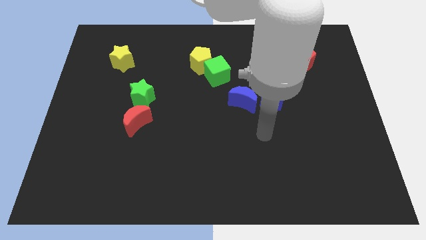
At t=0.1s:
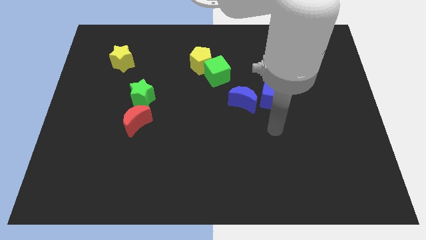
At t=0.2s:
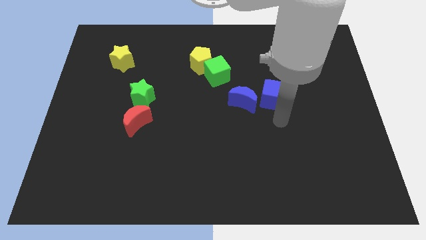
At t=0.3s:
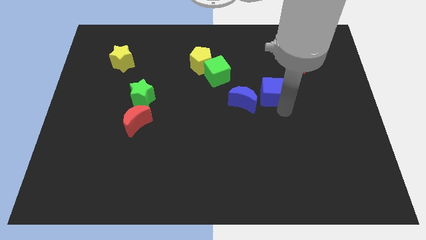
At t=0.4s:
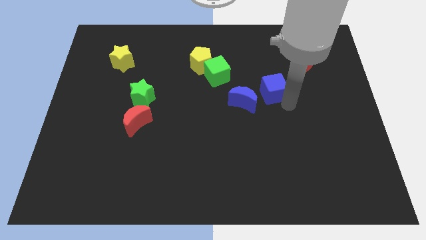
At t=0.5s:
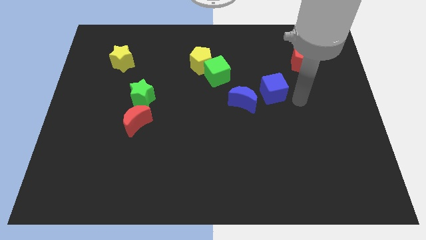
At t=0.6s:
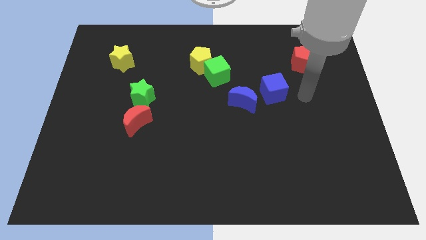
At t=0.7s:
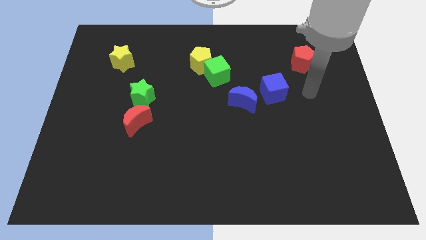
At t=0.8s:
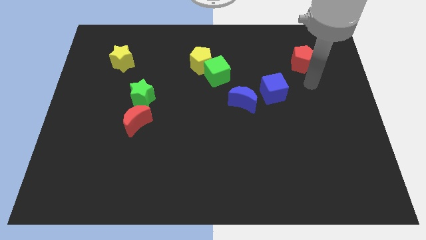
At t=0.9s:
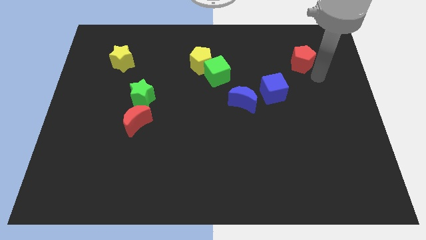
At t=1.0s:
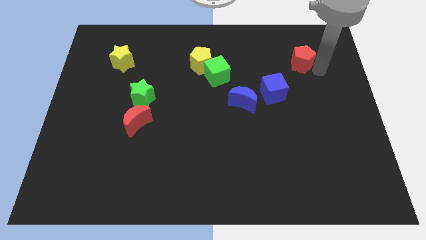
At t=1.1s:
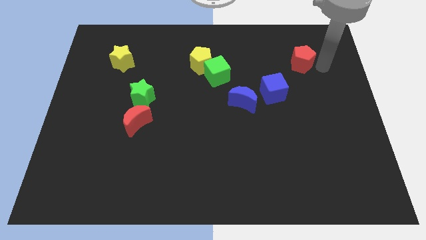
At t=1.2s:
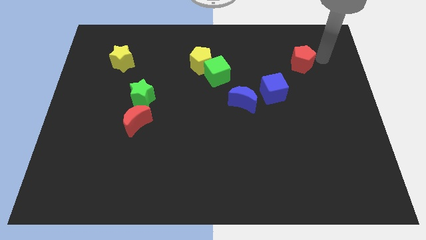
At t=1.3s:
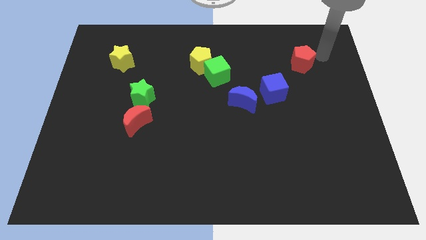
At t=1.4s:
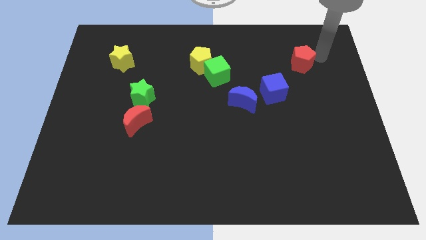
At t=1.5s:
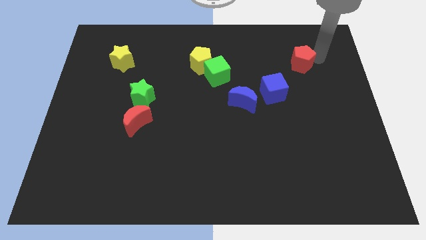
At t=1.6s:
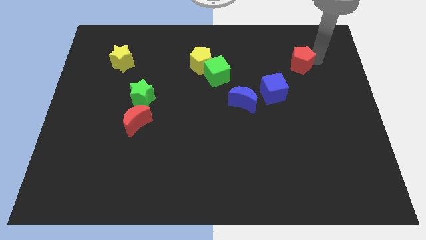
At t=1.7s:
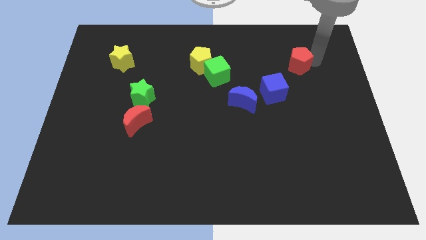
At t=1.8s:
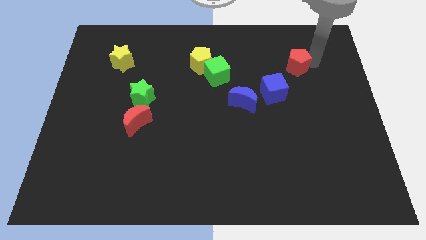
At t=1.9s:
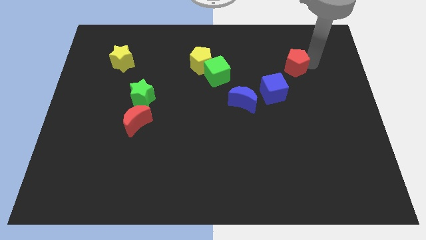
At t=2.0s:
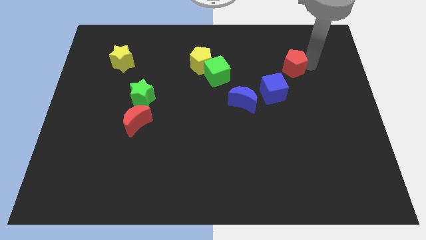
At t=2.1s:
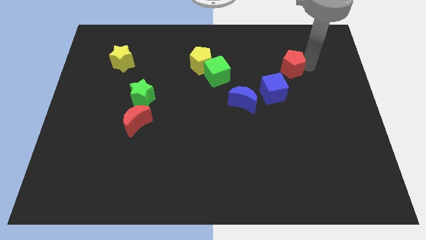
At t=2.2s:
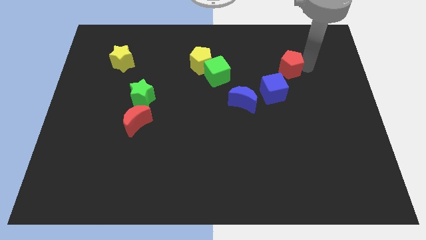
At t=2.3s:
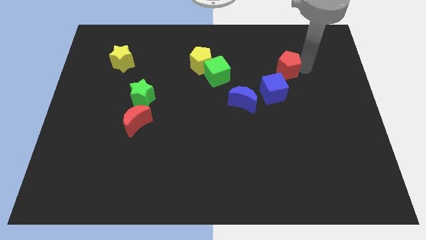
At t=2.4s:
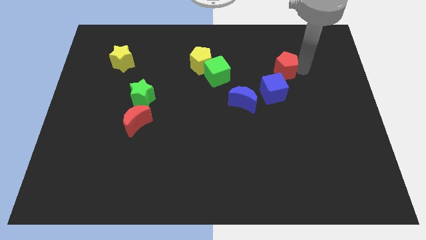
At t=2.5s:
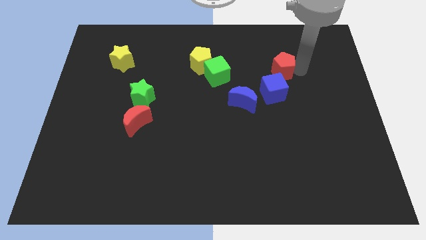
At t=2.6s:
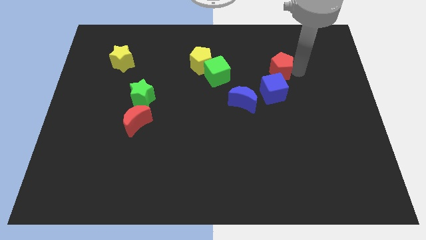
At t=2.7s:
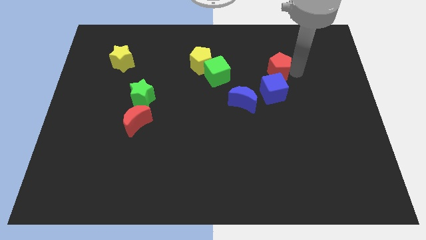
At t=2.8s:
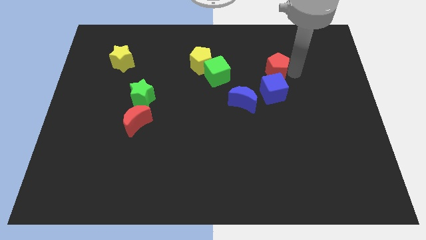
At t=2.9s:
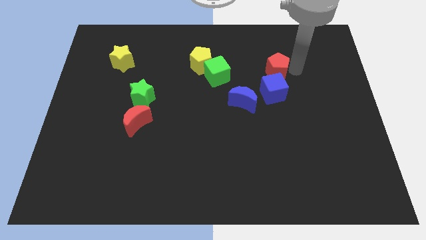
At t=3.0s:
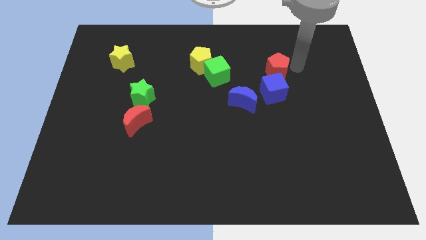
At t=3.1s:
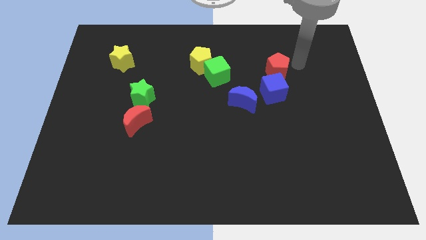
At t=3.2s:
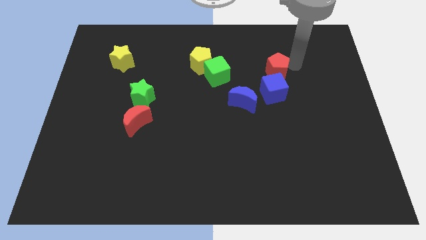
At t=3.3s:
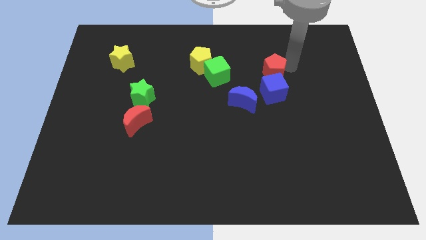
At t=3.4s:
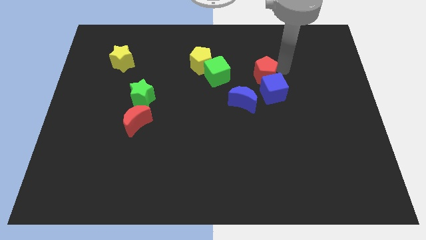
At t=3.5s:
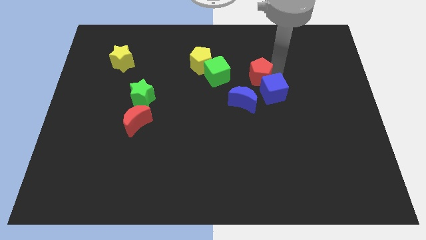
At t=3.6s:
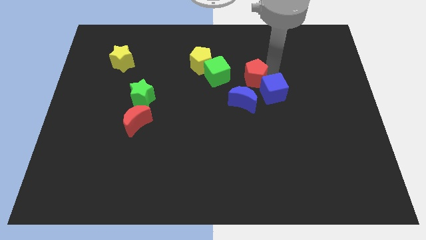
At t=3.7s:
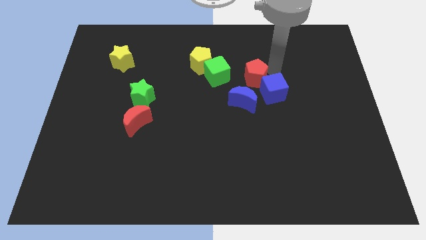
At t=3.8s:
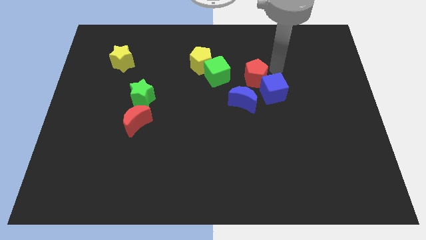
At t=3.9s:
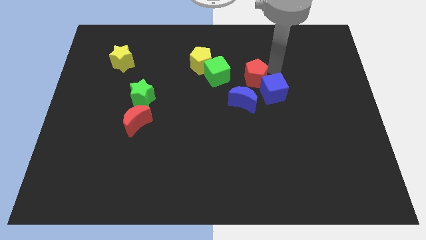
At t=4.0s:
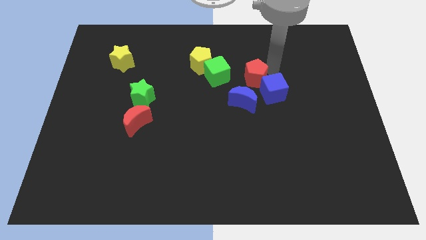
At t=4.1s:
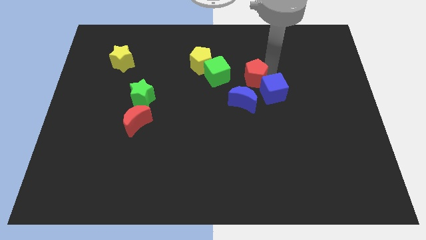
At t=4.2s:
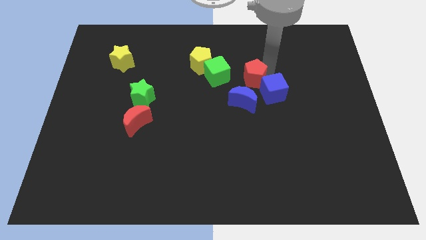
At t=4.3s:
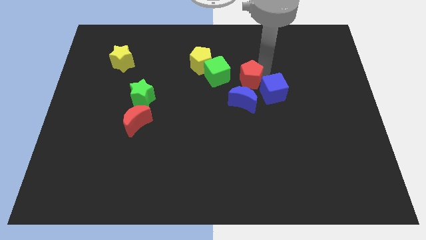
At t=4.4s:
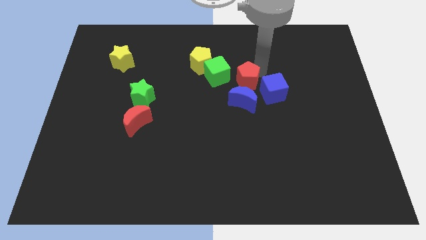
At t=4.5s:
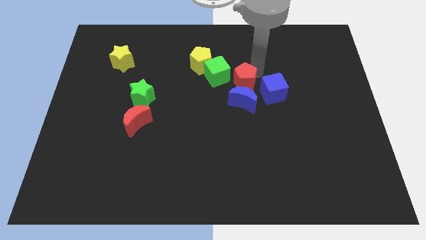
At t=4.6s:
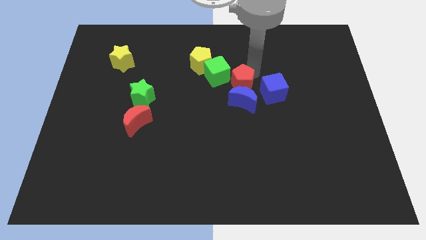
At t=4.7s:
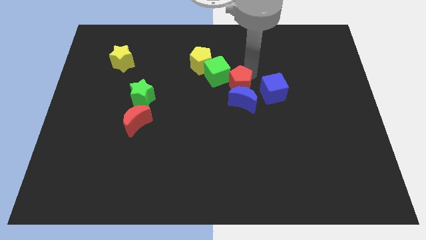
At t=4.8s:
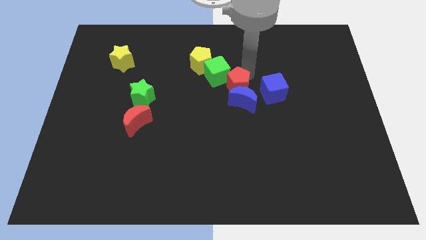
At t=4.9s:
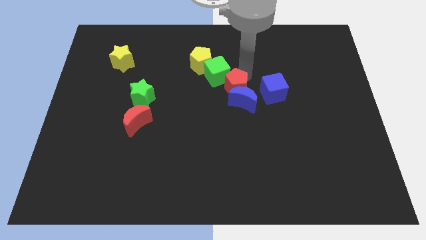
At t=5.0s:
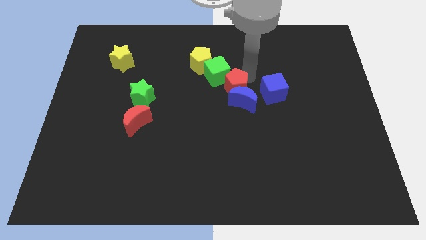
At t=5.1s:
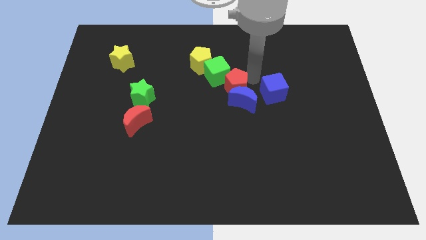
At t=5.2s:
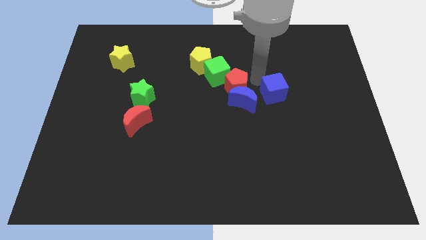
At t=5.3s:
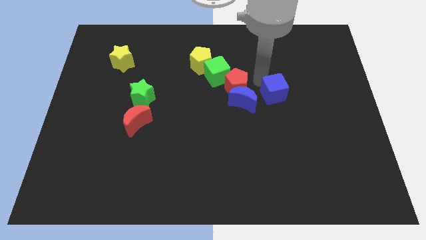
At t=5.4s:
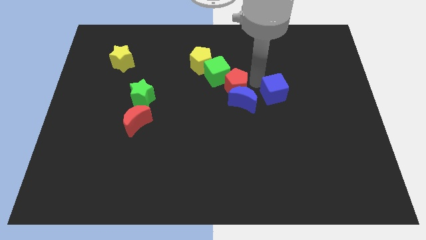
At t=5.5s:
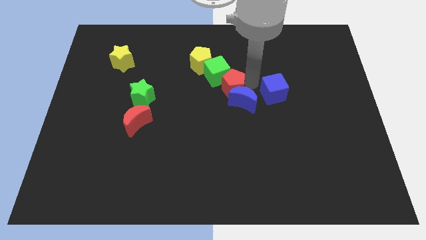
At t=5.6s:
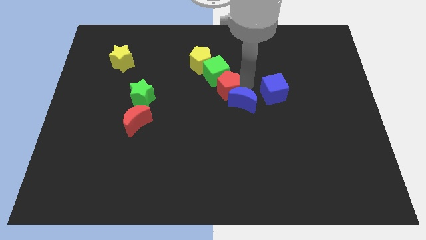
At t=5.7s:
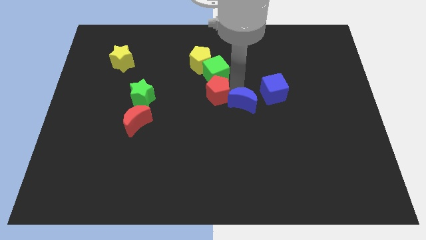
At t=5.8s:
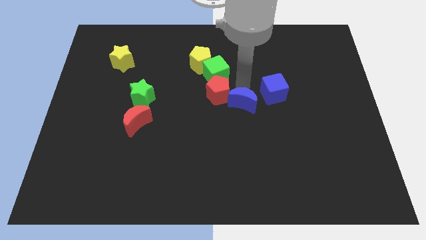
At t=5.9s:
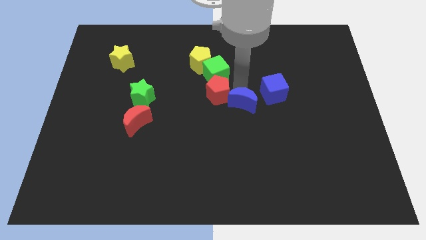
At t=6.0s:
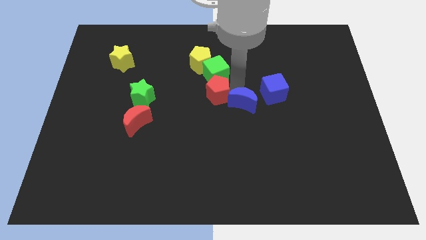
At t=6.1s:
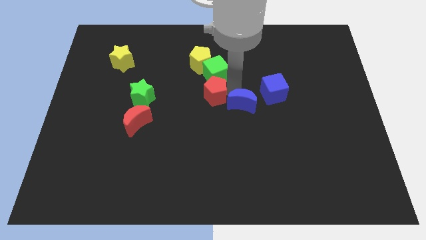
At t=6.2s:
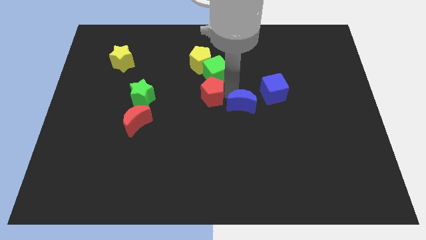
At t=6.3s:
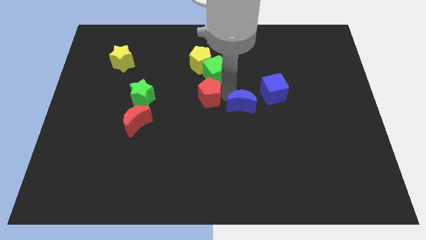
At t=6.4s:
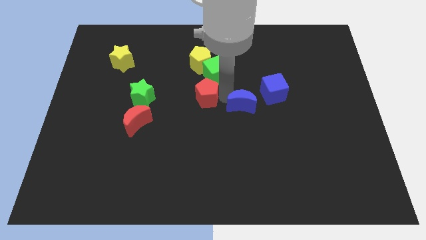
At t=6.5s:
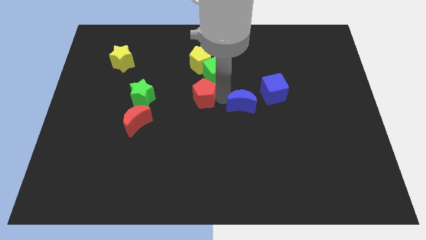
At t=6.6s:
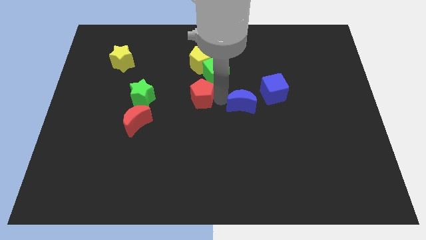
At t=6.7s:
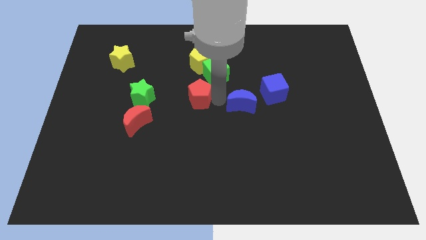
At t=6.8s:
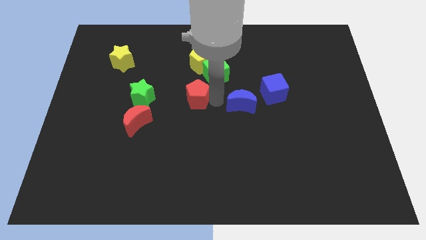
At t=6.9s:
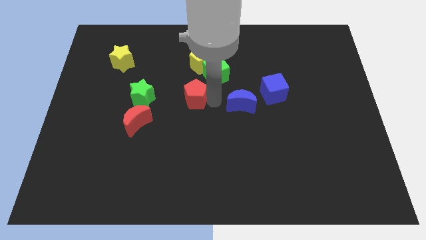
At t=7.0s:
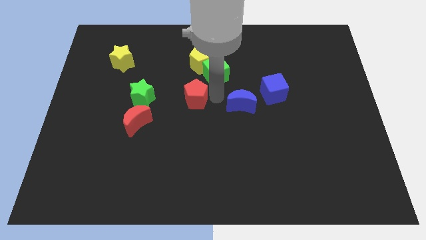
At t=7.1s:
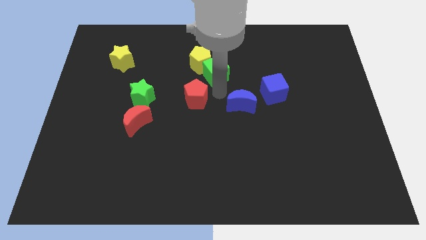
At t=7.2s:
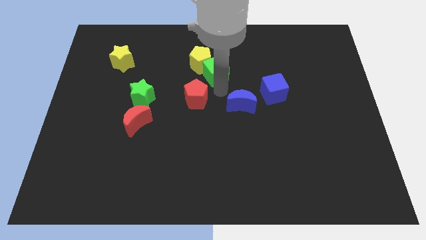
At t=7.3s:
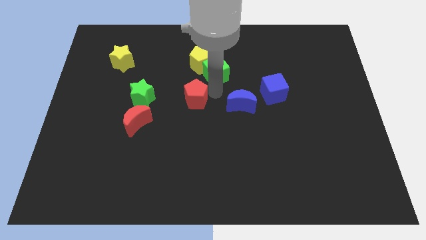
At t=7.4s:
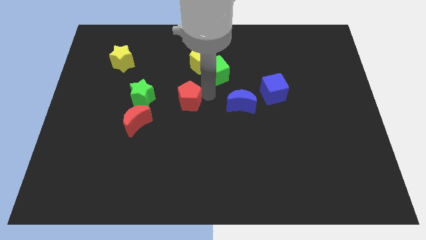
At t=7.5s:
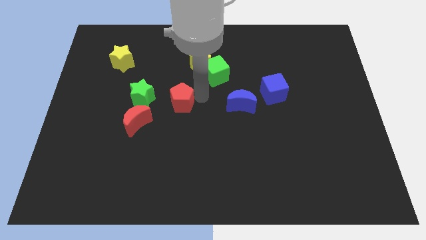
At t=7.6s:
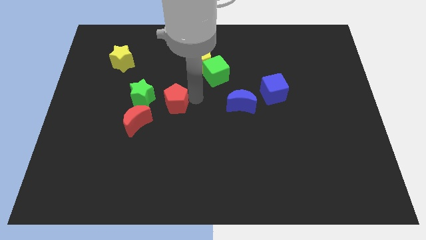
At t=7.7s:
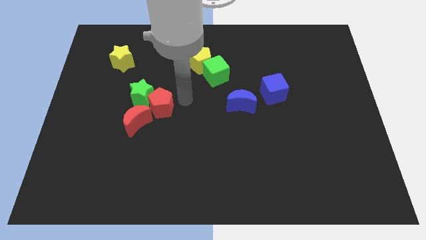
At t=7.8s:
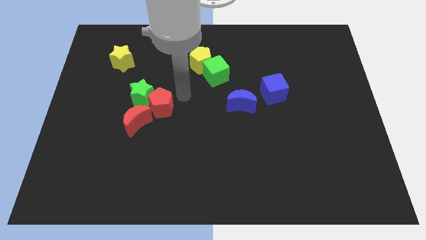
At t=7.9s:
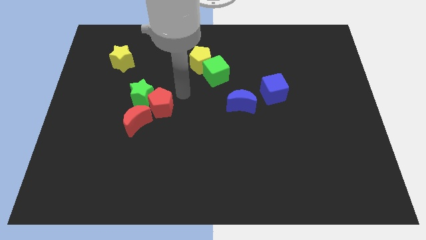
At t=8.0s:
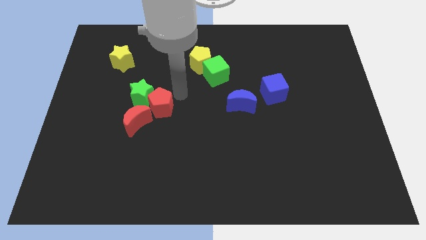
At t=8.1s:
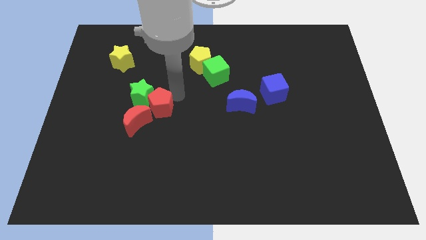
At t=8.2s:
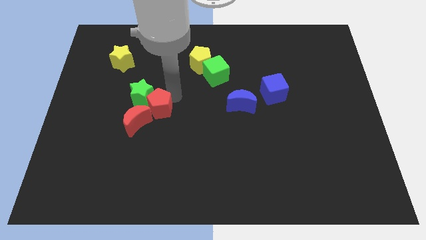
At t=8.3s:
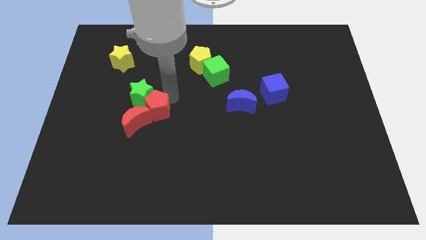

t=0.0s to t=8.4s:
move the red pentagon next to the red moon
